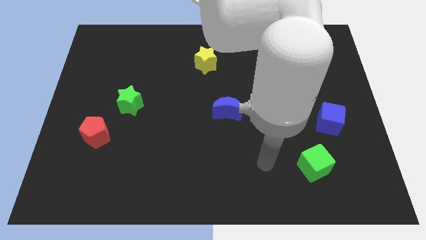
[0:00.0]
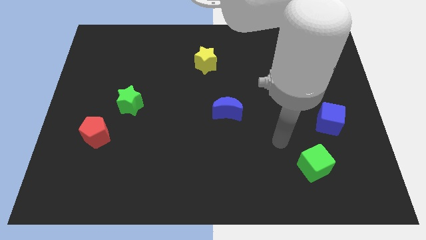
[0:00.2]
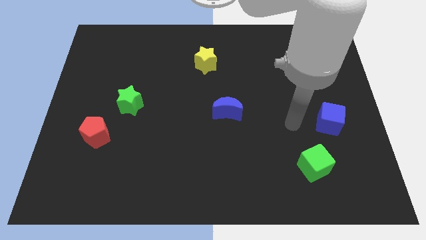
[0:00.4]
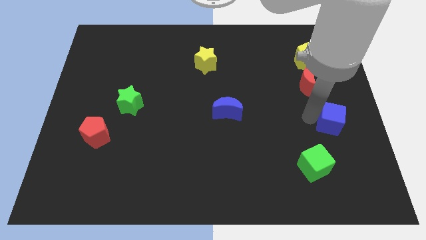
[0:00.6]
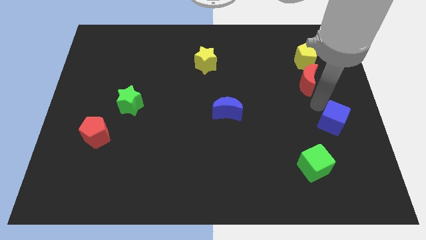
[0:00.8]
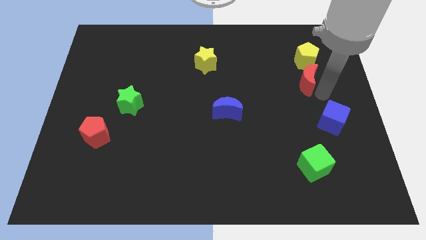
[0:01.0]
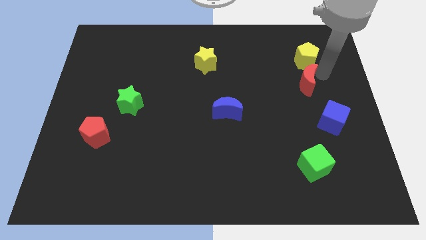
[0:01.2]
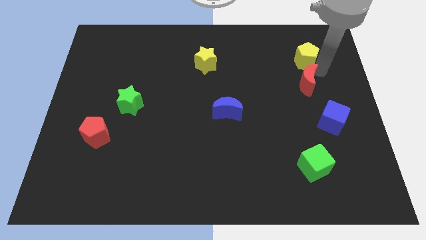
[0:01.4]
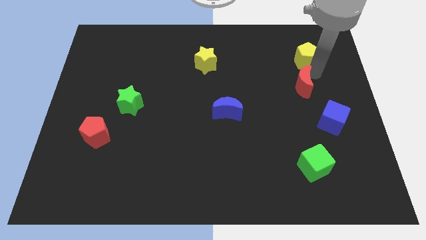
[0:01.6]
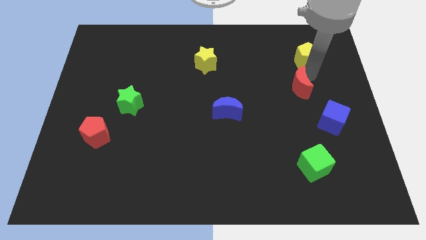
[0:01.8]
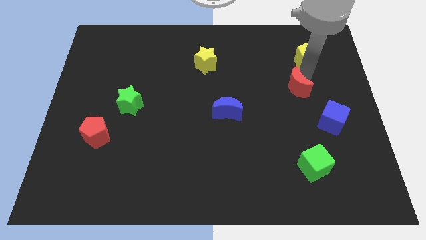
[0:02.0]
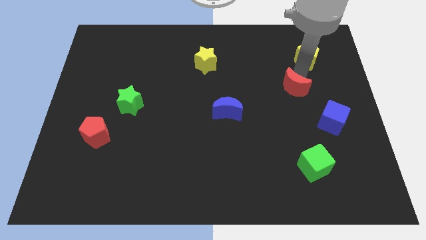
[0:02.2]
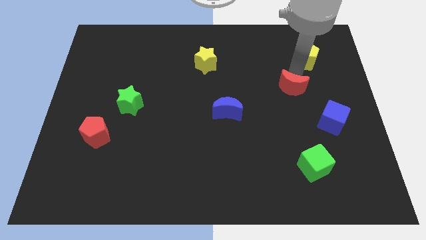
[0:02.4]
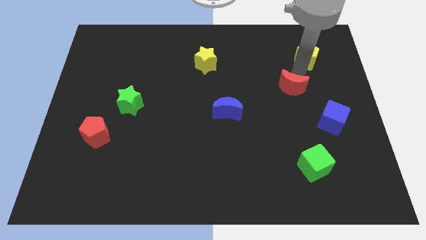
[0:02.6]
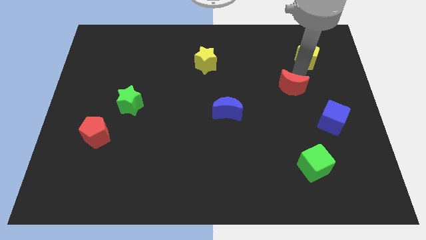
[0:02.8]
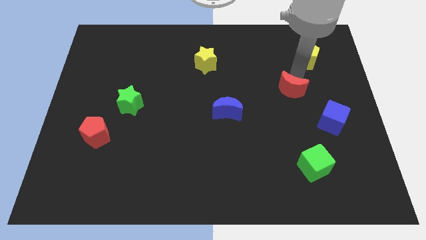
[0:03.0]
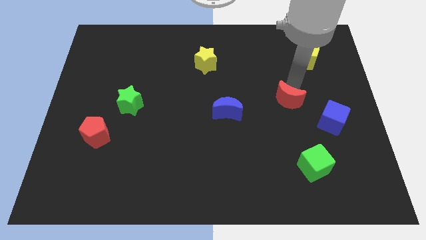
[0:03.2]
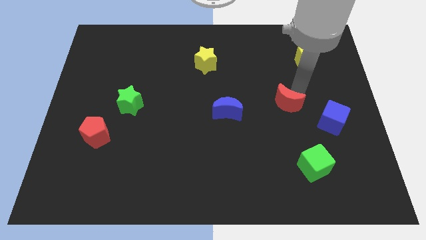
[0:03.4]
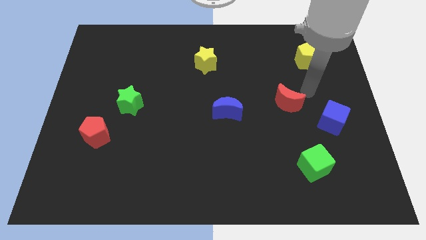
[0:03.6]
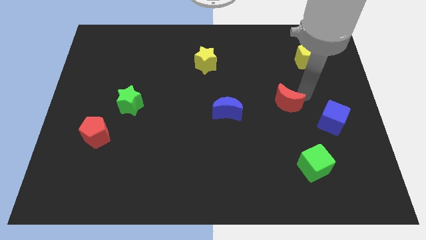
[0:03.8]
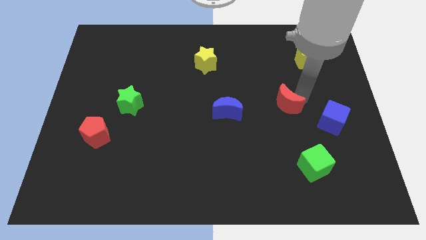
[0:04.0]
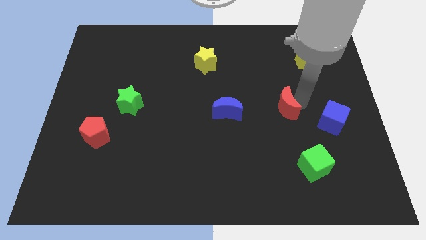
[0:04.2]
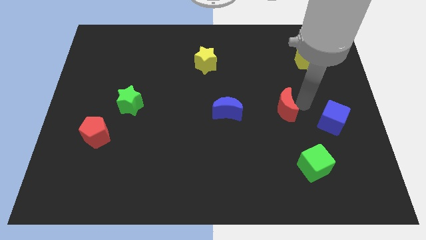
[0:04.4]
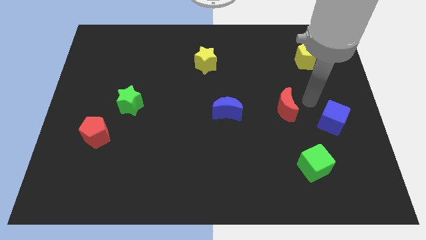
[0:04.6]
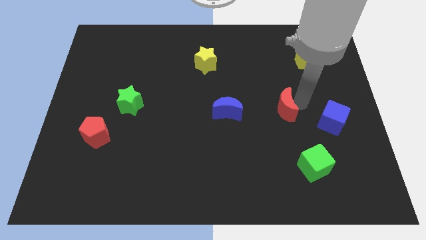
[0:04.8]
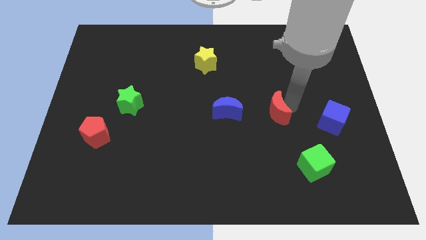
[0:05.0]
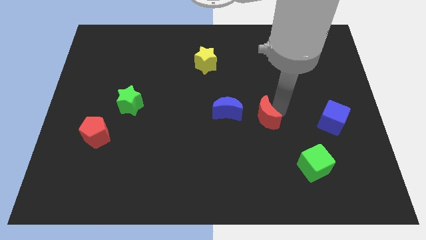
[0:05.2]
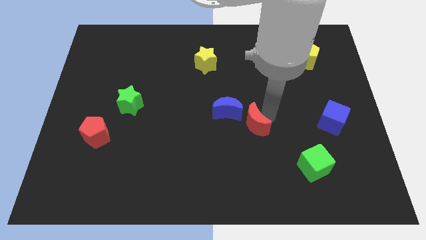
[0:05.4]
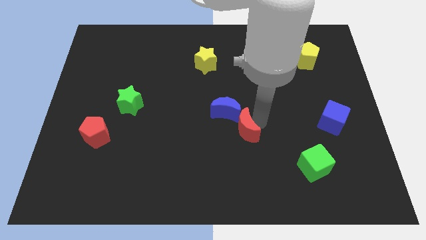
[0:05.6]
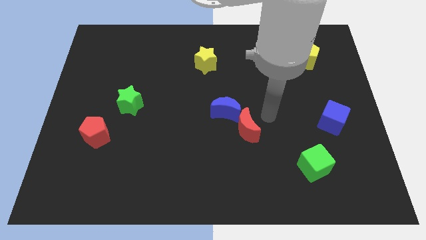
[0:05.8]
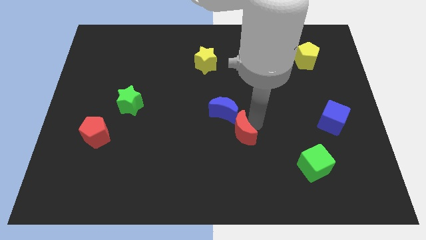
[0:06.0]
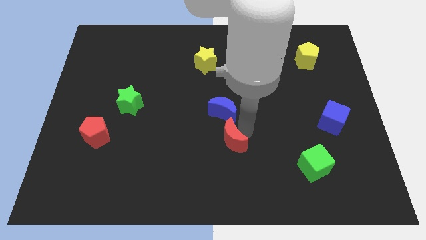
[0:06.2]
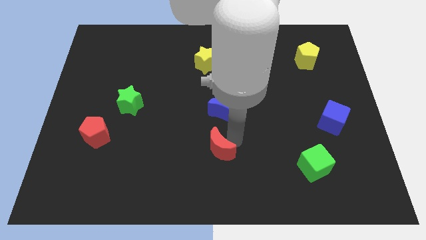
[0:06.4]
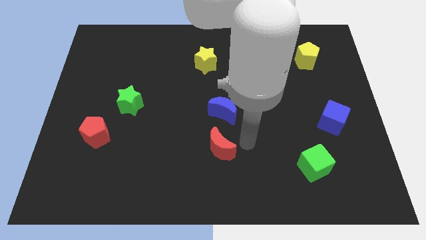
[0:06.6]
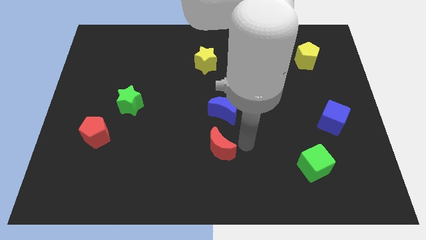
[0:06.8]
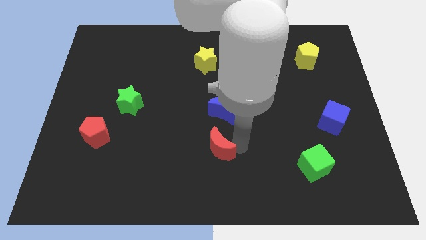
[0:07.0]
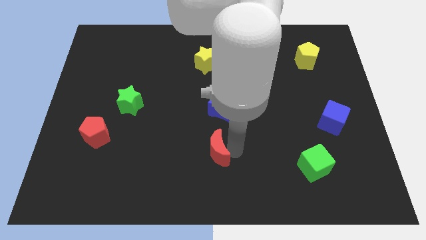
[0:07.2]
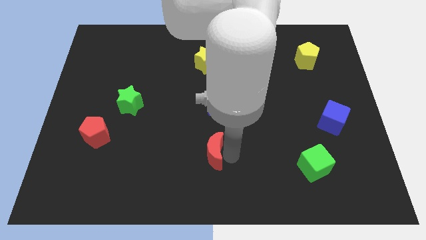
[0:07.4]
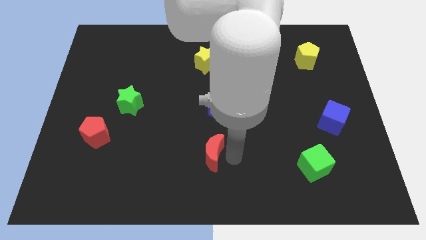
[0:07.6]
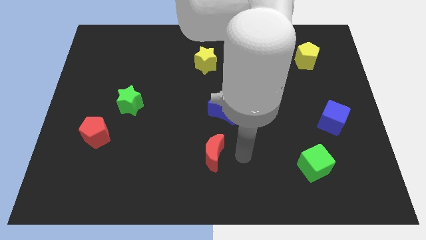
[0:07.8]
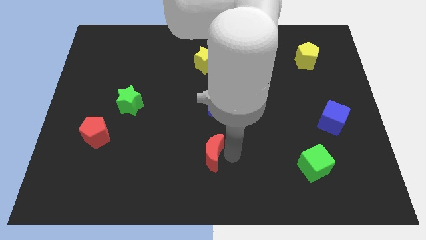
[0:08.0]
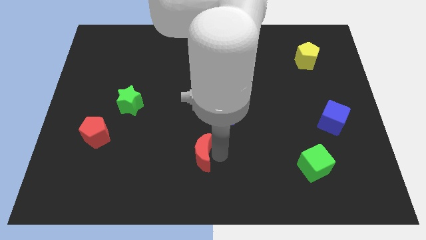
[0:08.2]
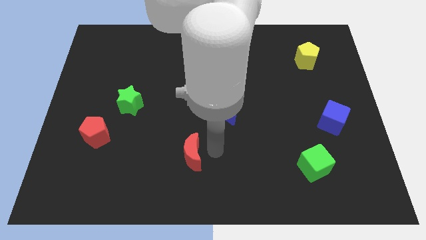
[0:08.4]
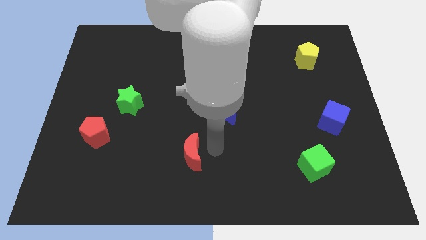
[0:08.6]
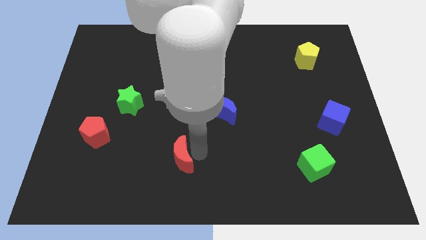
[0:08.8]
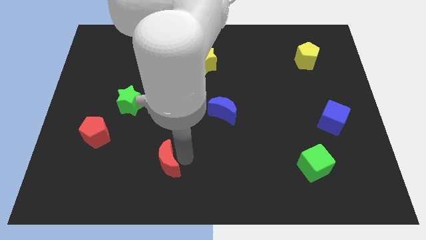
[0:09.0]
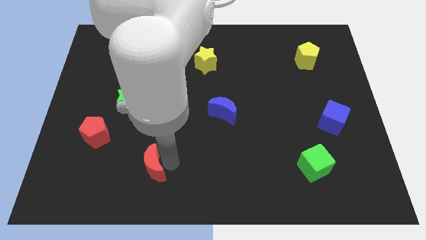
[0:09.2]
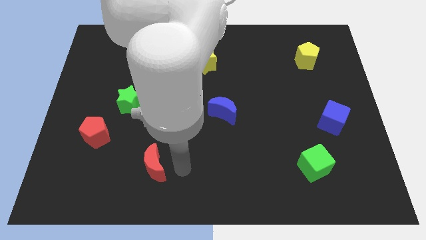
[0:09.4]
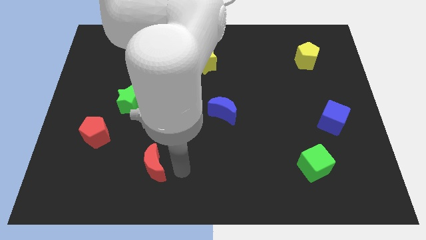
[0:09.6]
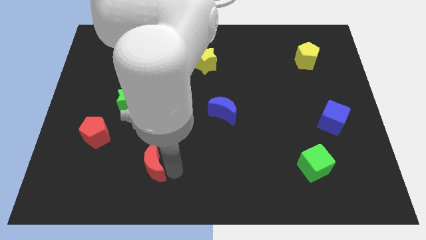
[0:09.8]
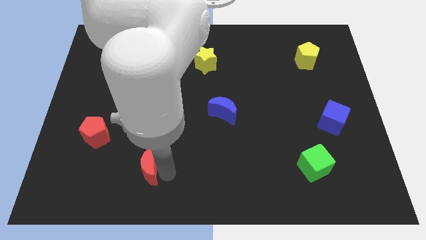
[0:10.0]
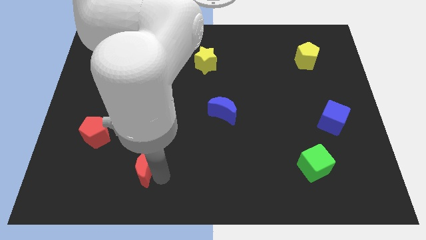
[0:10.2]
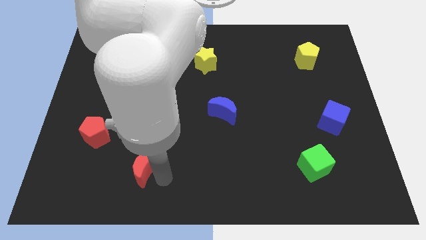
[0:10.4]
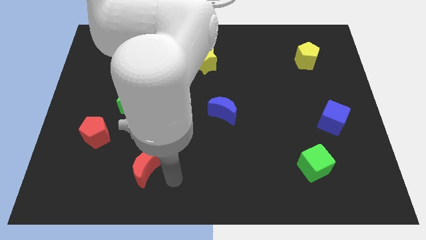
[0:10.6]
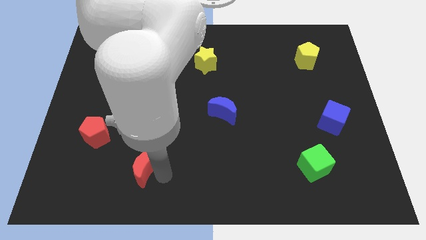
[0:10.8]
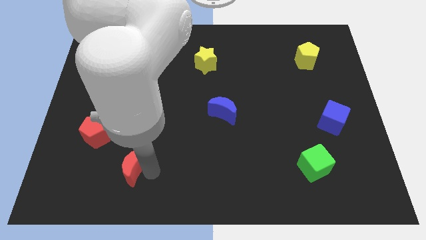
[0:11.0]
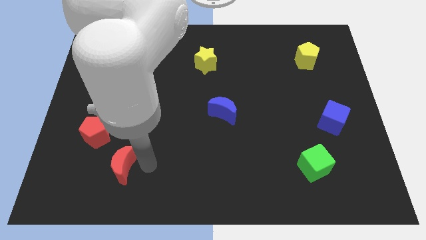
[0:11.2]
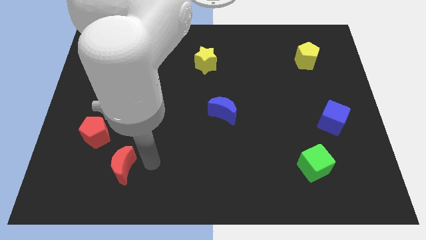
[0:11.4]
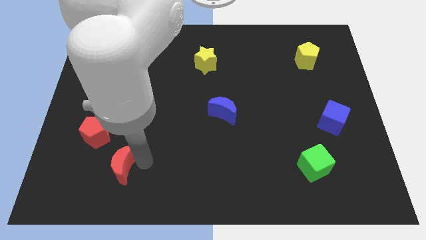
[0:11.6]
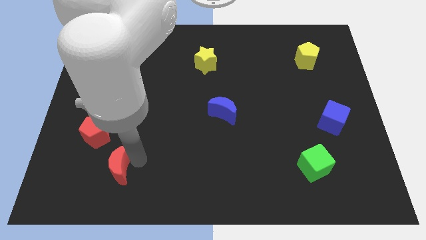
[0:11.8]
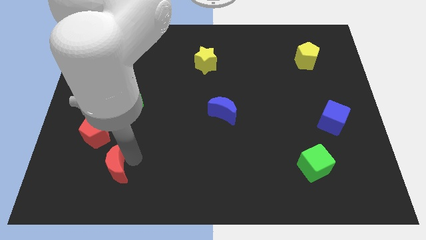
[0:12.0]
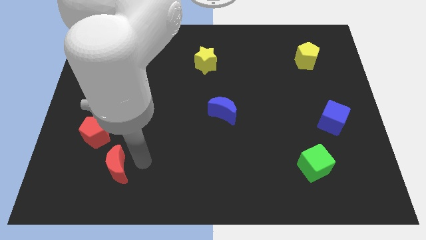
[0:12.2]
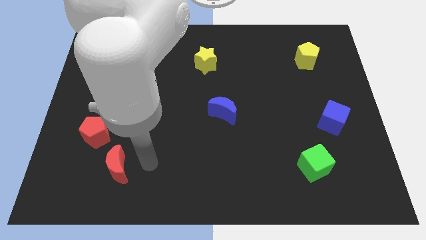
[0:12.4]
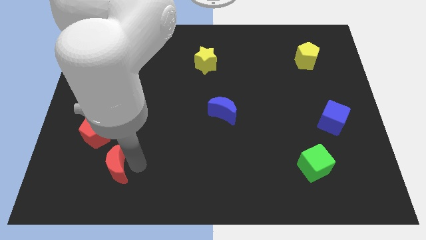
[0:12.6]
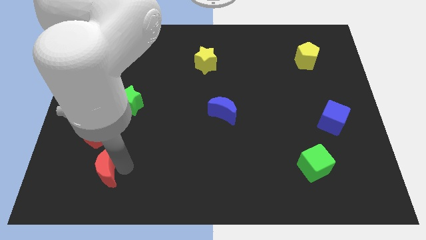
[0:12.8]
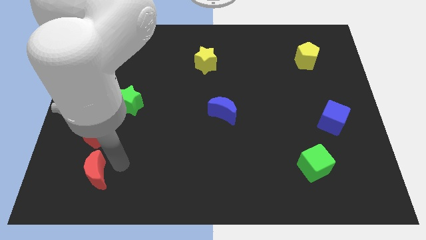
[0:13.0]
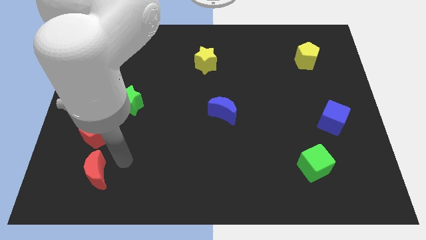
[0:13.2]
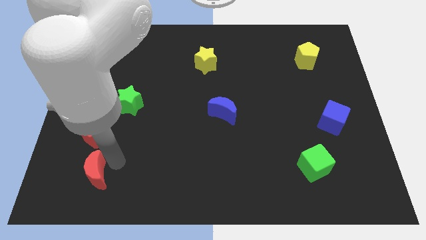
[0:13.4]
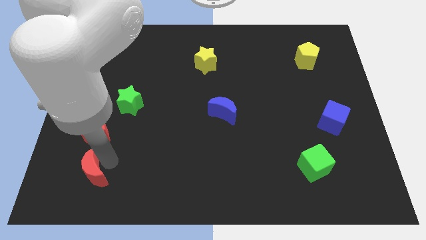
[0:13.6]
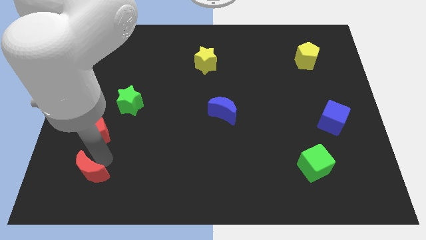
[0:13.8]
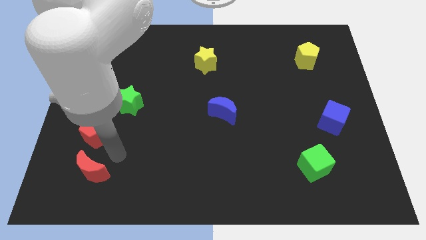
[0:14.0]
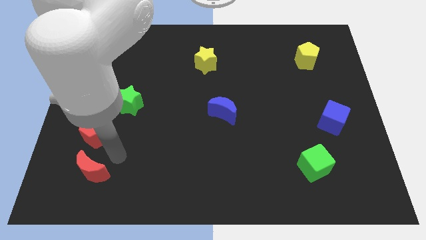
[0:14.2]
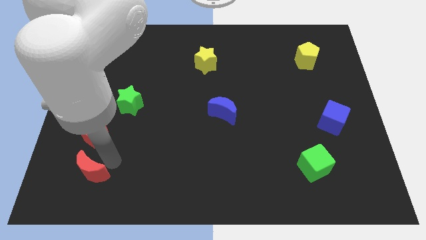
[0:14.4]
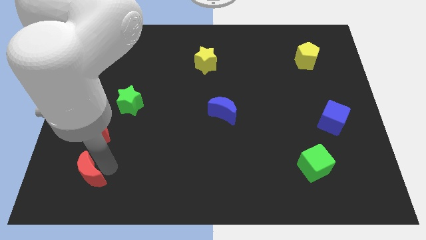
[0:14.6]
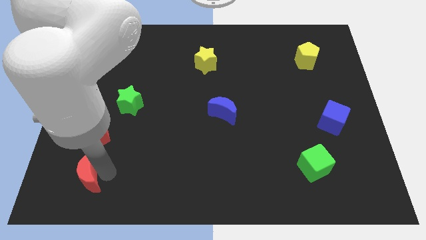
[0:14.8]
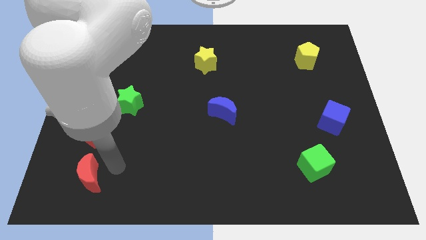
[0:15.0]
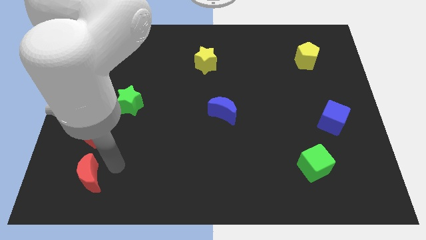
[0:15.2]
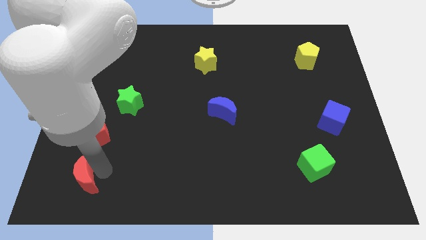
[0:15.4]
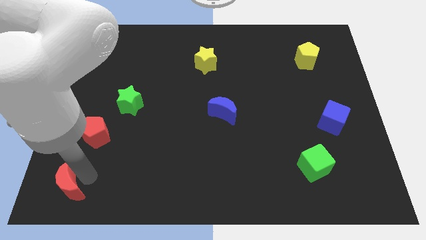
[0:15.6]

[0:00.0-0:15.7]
slide the red moon to the bottom left corner
